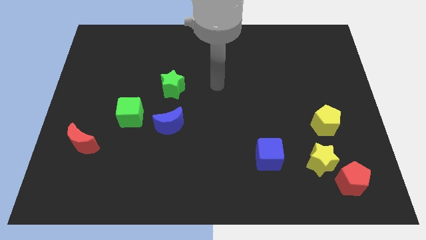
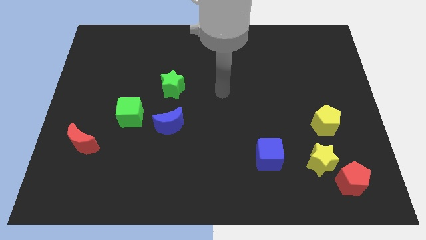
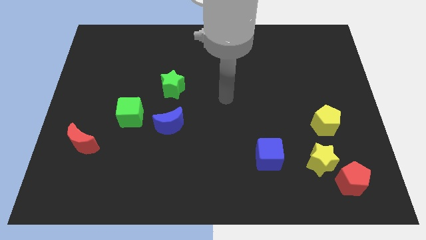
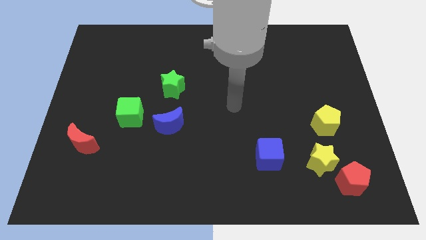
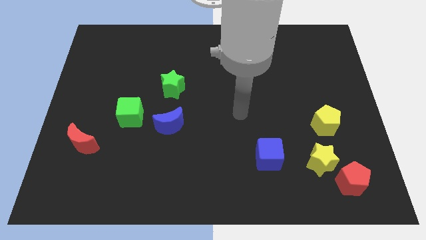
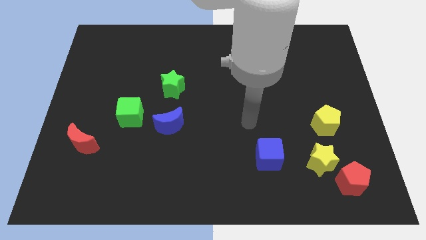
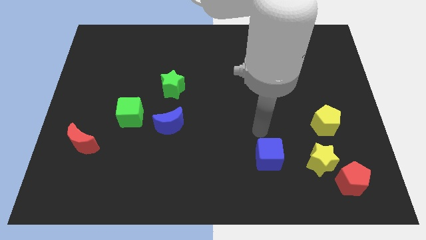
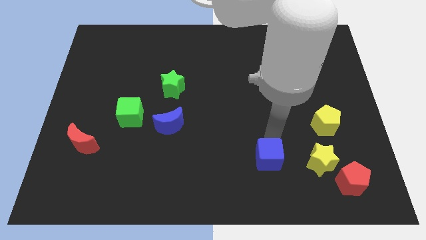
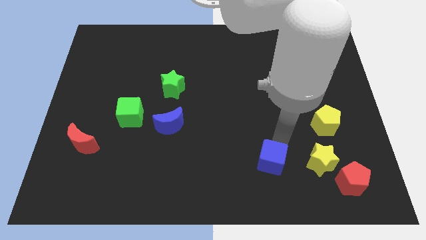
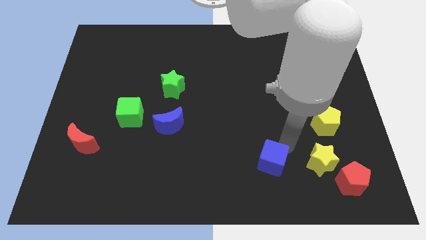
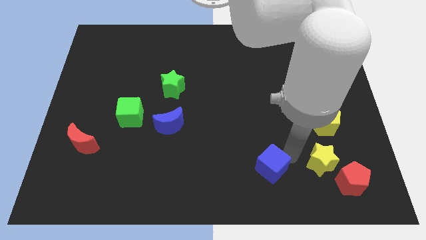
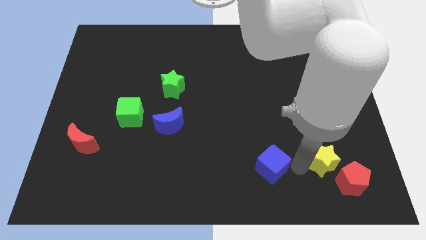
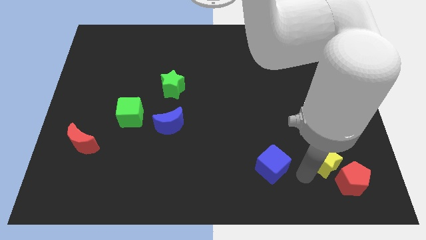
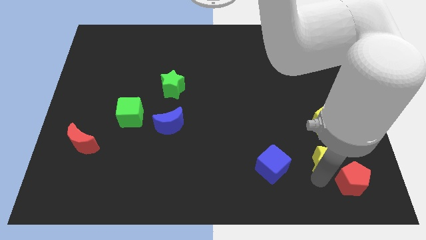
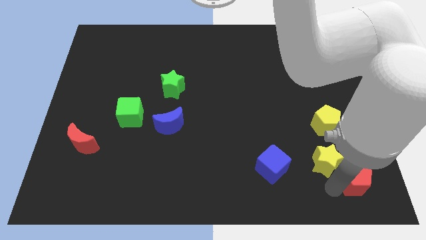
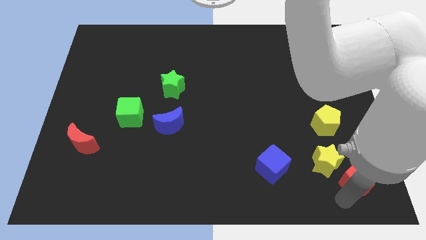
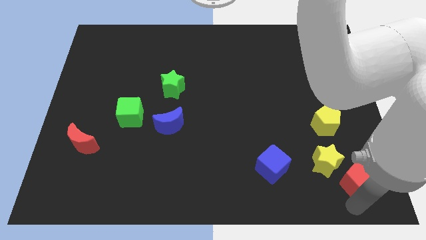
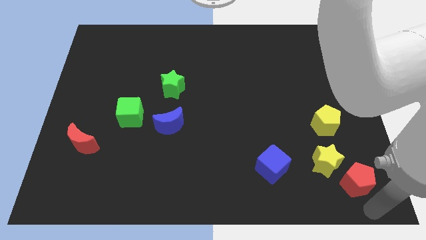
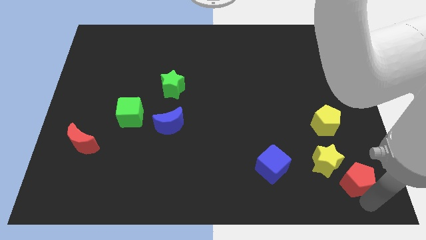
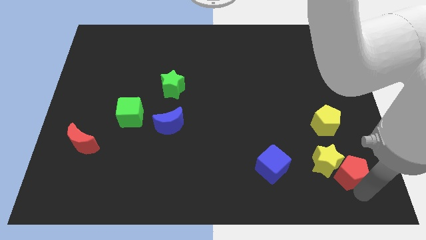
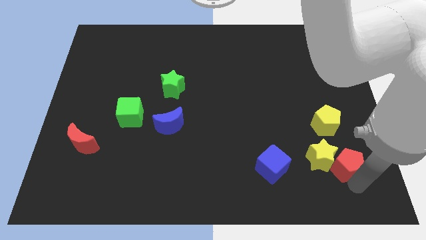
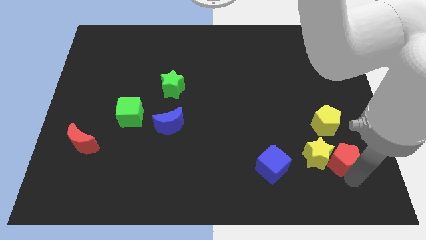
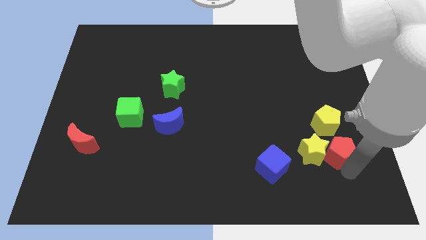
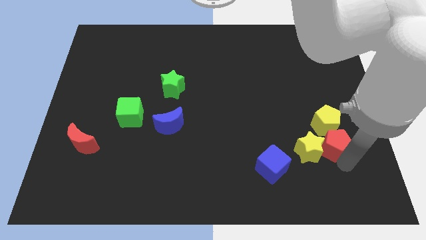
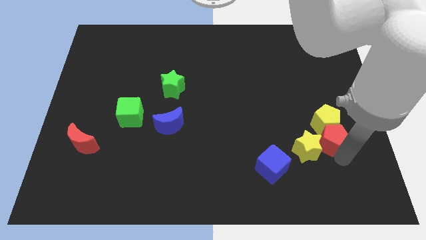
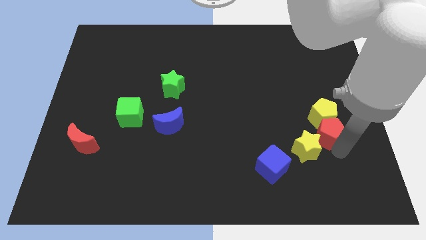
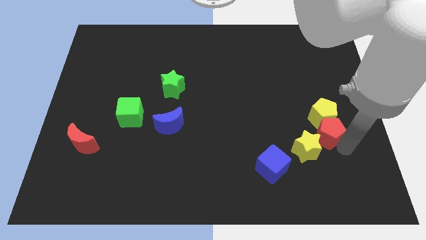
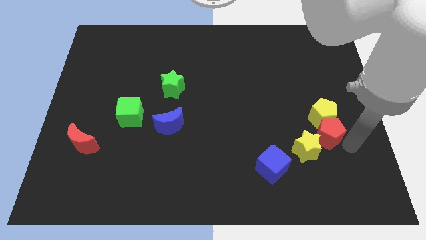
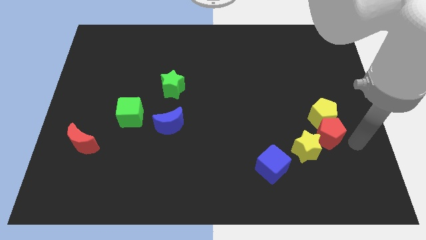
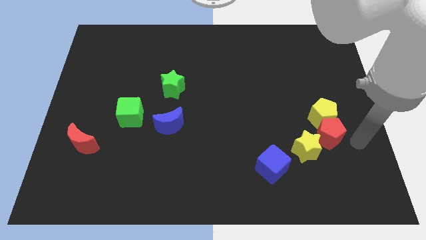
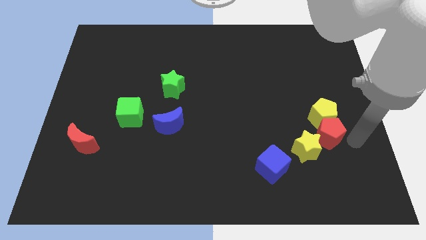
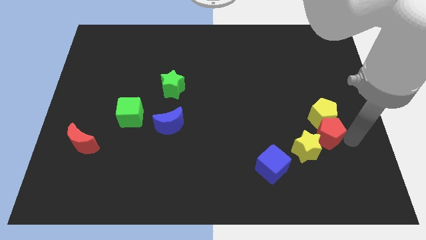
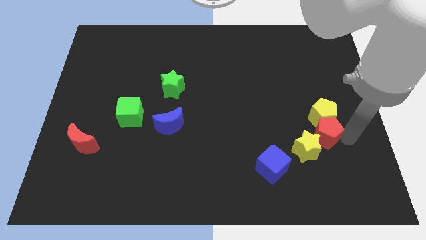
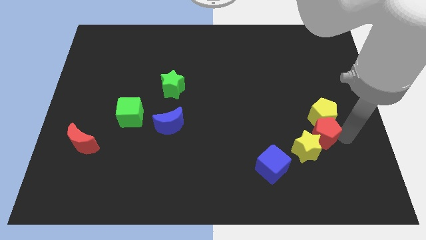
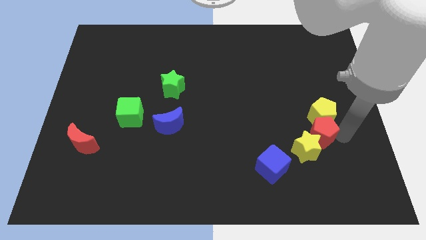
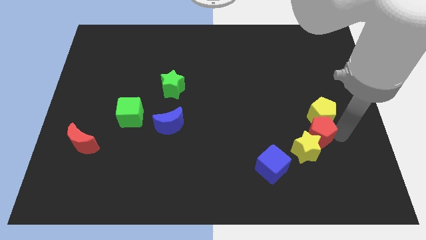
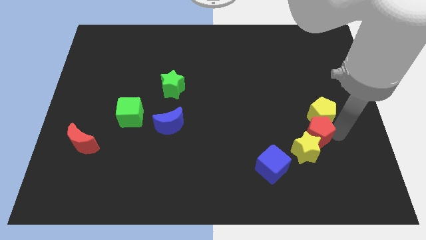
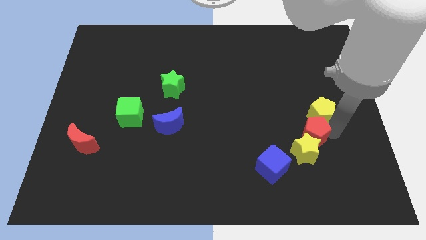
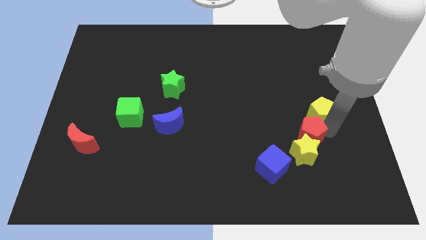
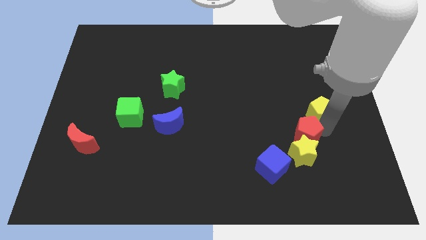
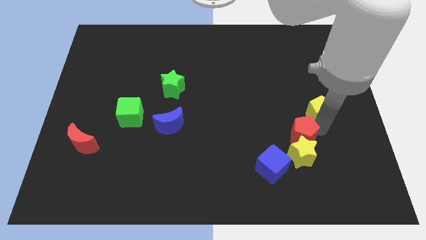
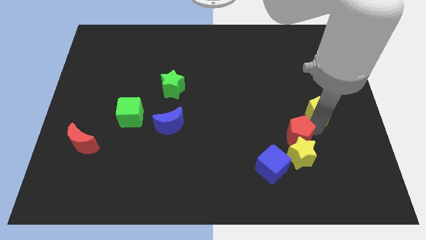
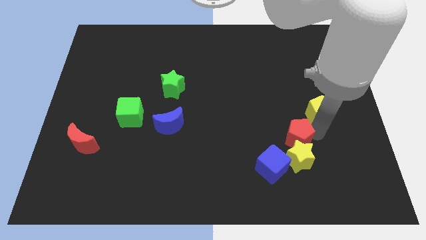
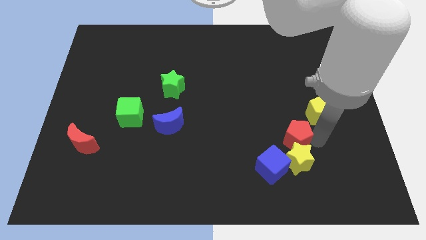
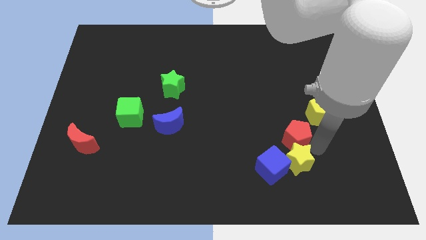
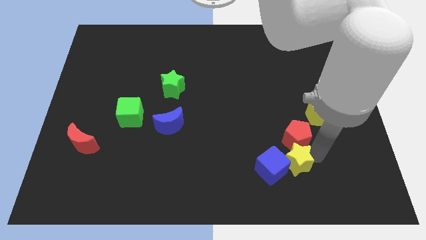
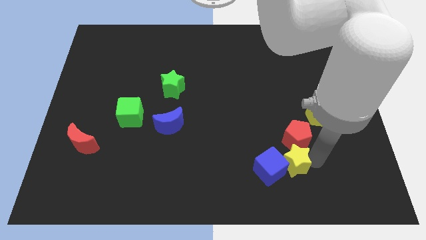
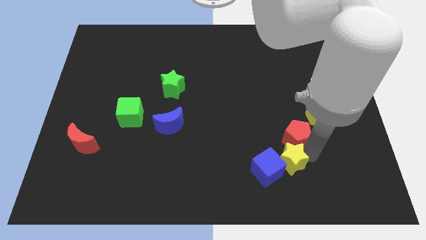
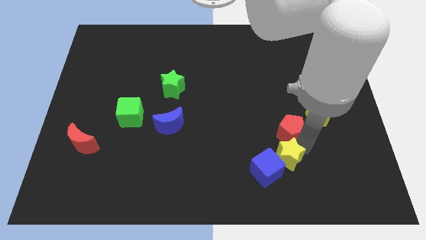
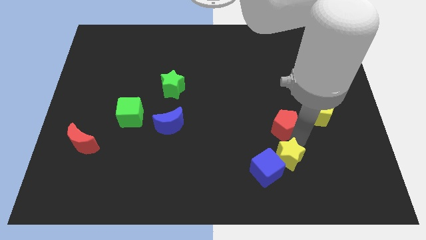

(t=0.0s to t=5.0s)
move the red pentagon to the left of the yellow pentagon

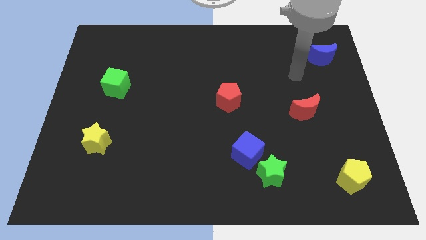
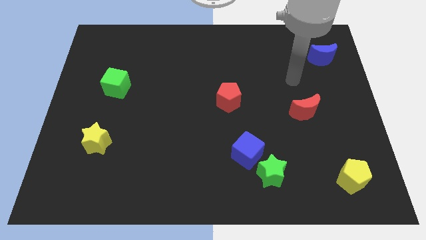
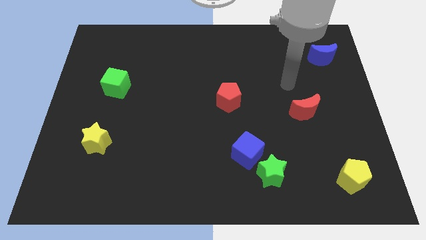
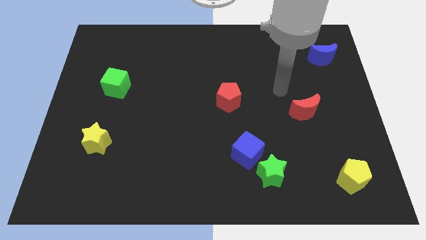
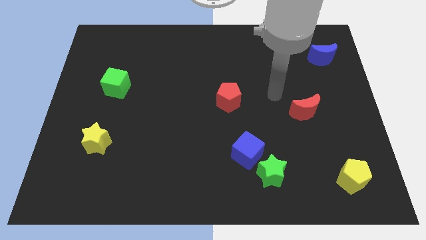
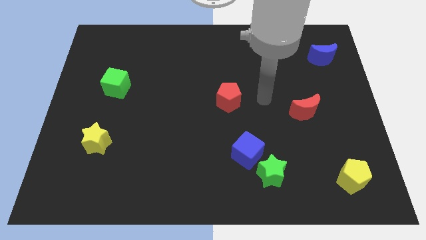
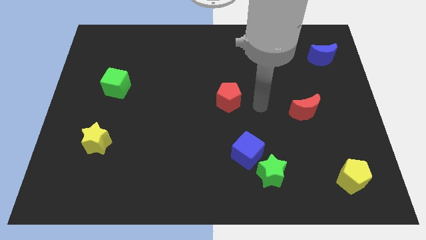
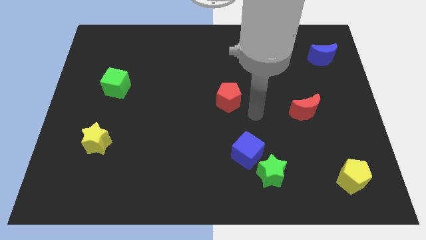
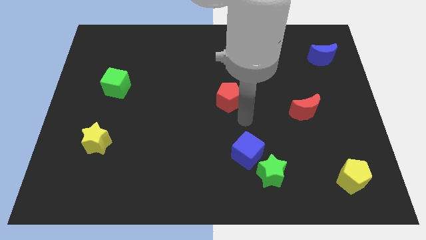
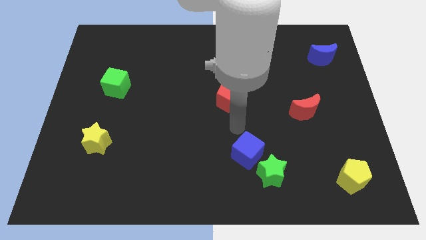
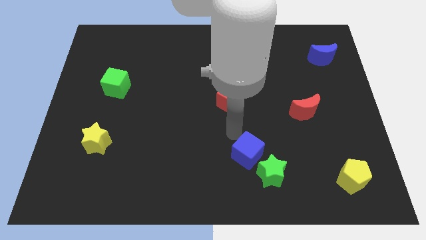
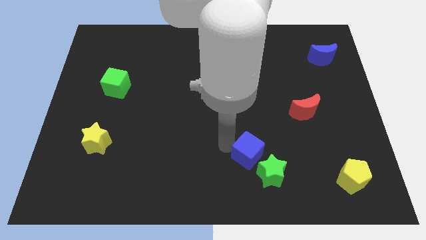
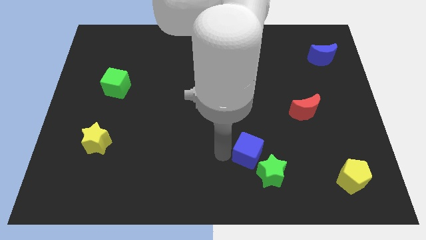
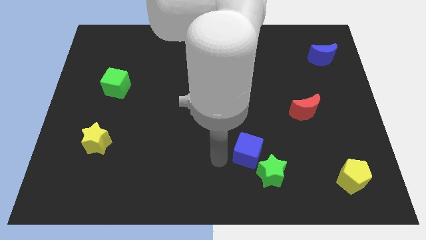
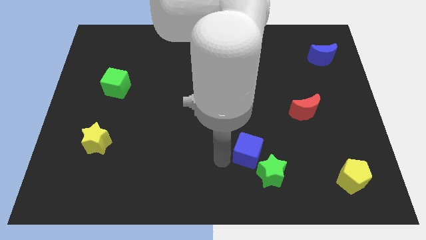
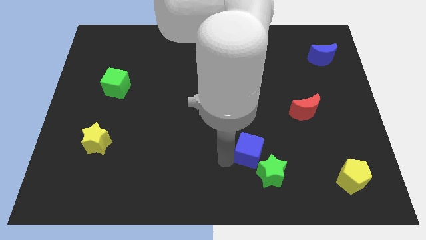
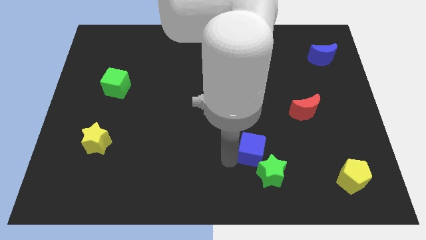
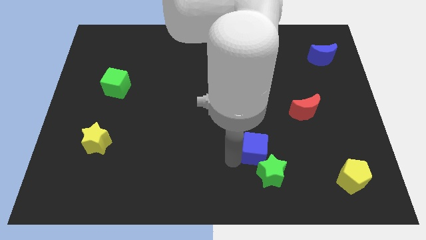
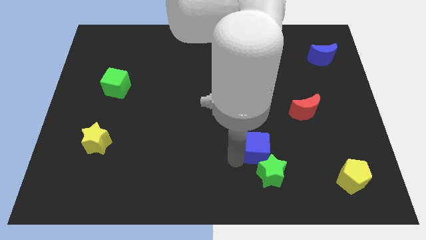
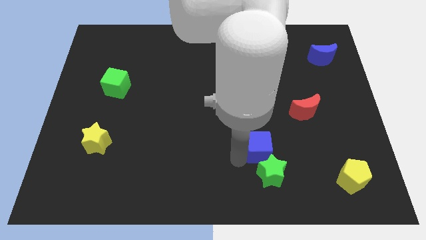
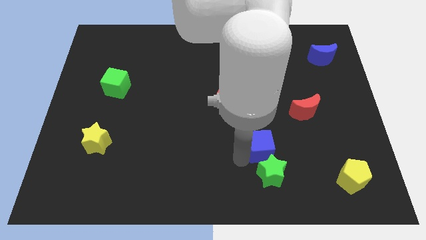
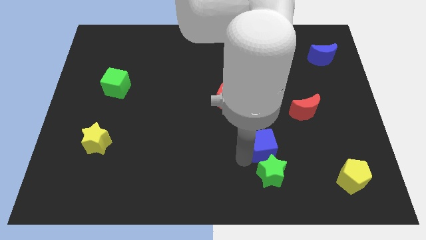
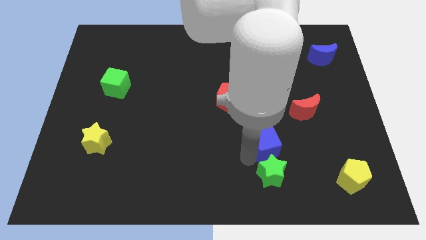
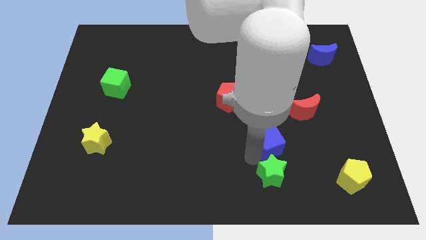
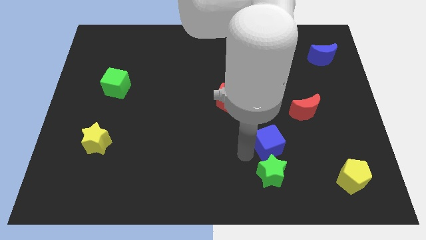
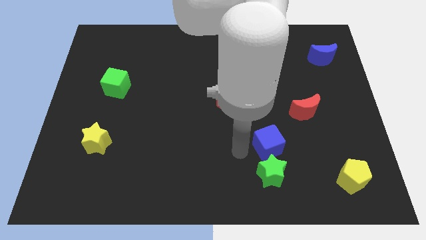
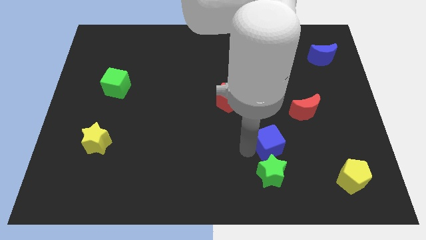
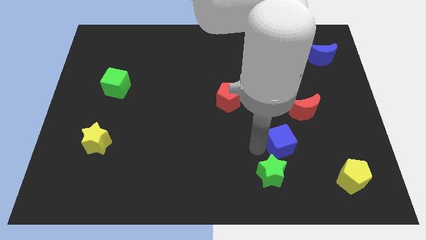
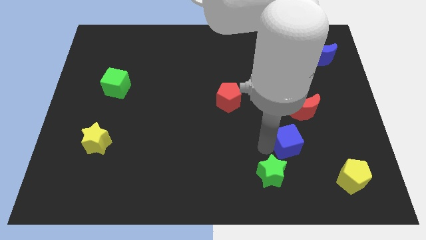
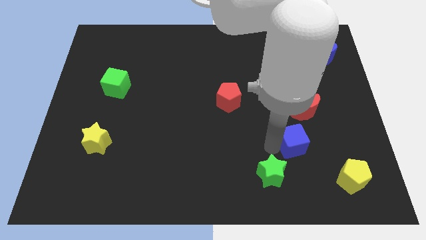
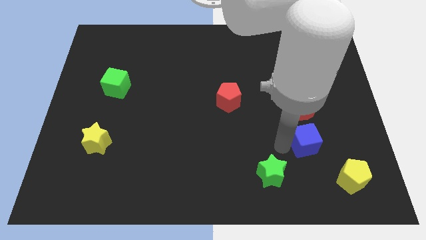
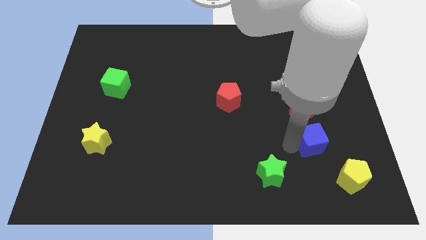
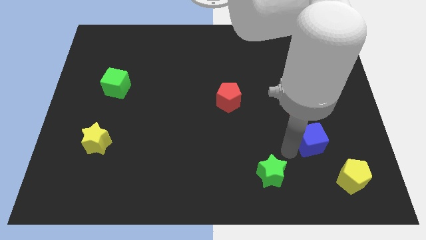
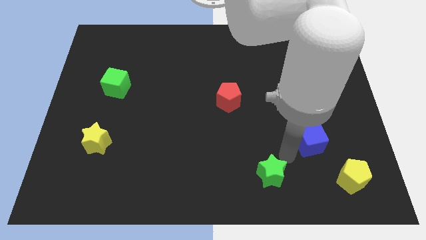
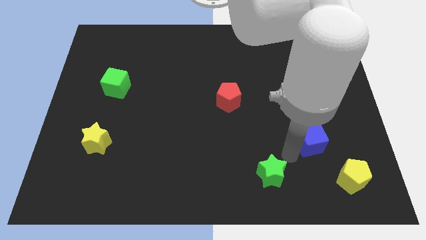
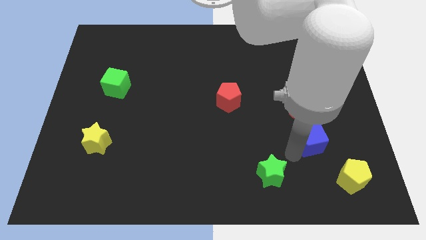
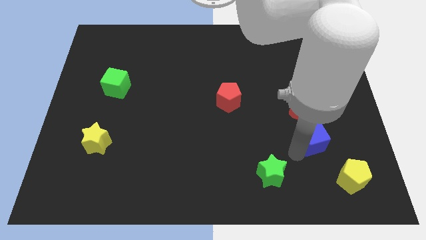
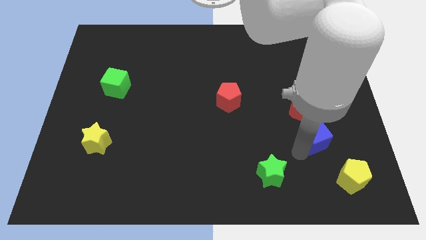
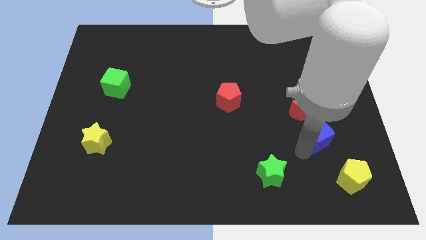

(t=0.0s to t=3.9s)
put the blue cube to the bottom right of the red moon
